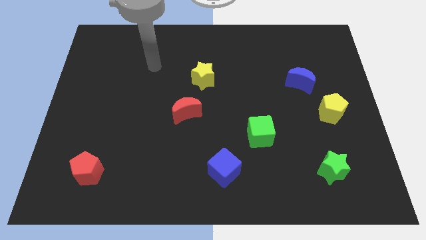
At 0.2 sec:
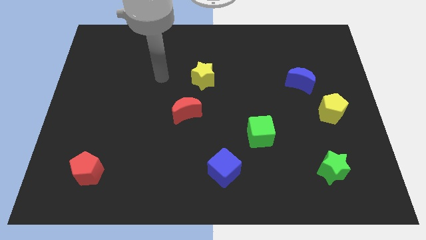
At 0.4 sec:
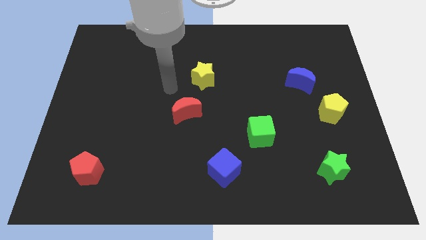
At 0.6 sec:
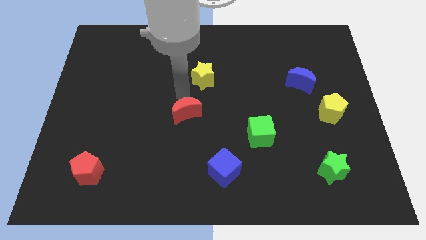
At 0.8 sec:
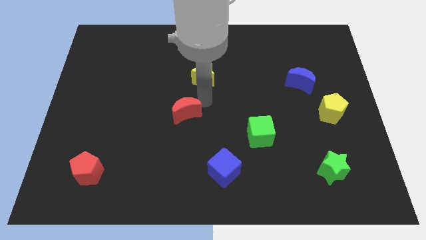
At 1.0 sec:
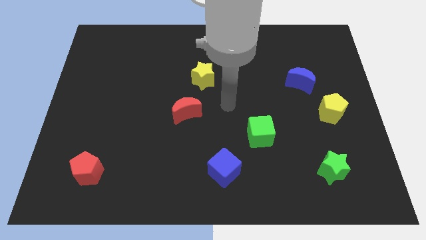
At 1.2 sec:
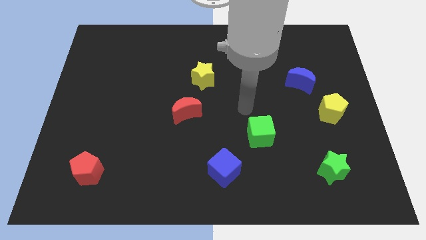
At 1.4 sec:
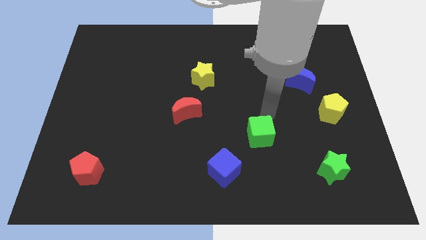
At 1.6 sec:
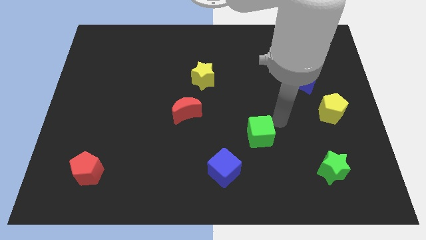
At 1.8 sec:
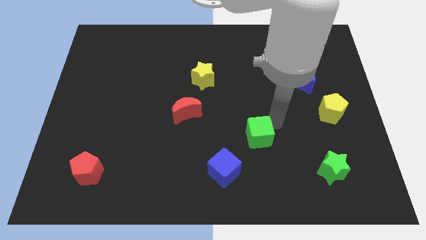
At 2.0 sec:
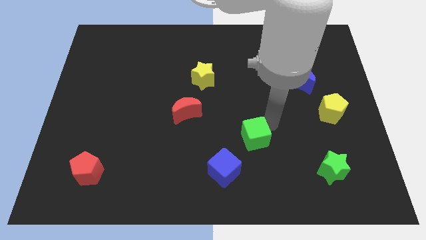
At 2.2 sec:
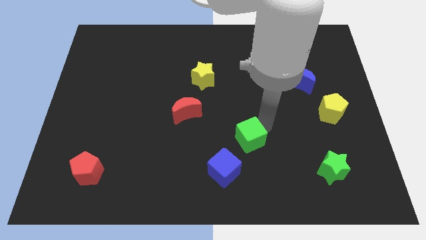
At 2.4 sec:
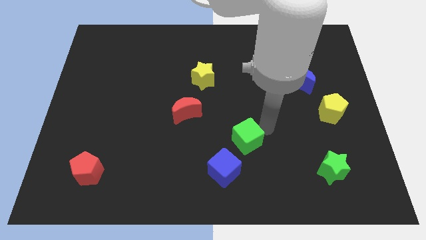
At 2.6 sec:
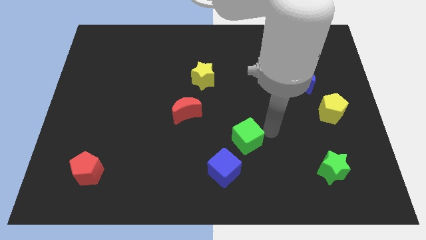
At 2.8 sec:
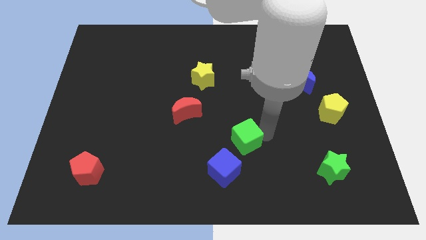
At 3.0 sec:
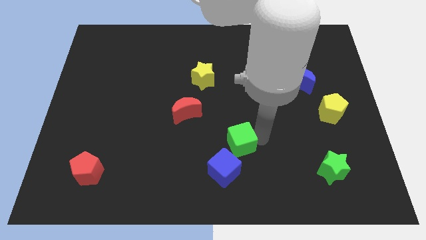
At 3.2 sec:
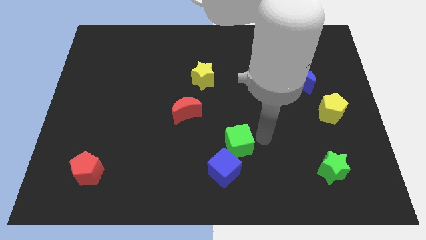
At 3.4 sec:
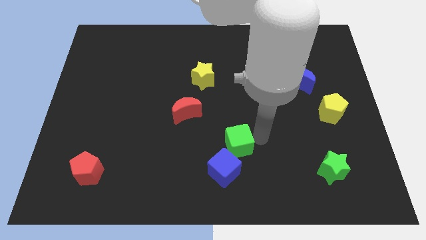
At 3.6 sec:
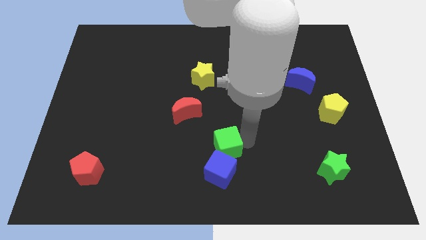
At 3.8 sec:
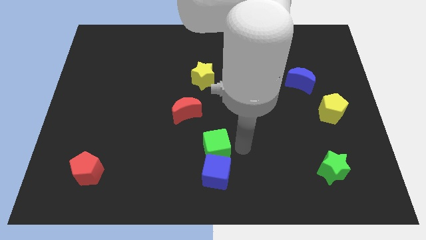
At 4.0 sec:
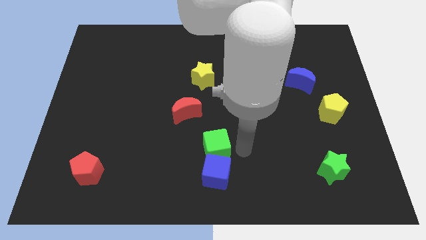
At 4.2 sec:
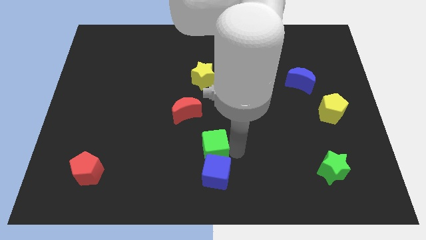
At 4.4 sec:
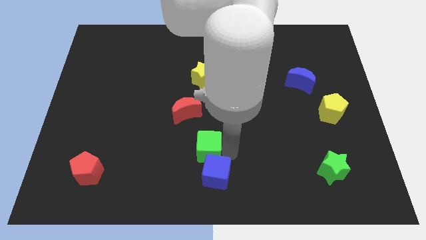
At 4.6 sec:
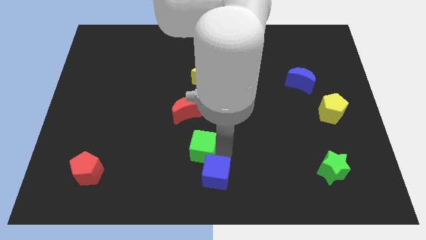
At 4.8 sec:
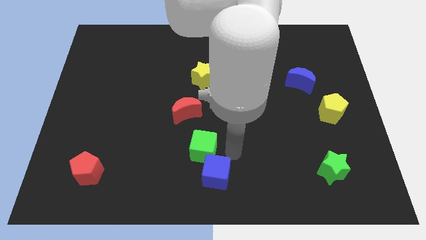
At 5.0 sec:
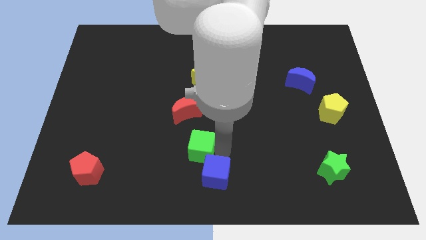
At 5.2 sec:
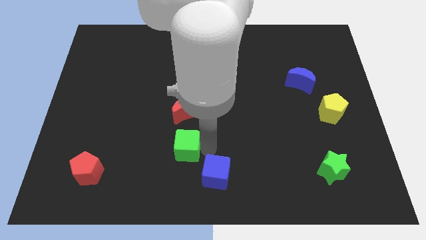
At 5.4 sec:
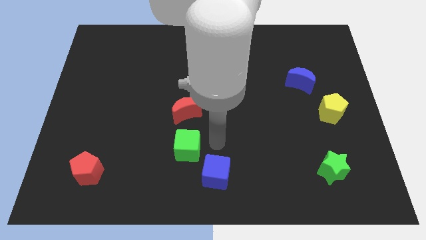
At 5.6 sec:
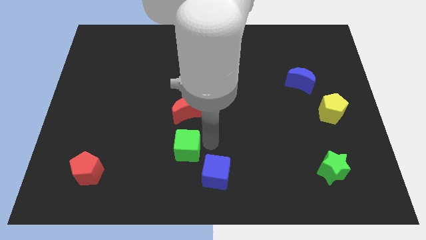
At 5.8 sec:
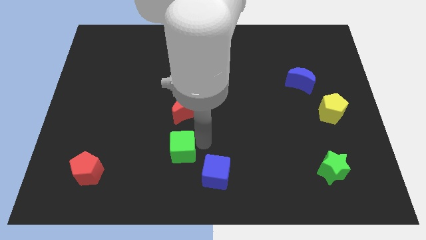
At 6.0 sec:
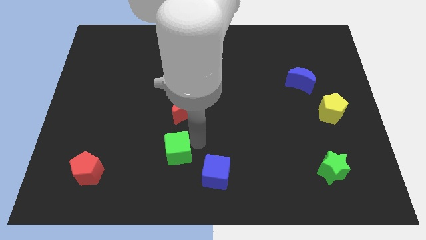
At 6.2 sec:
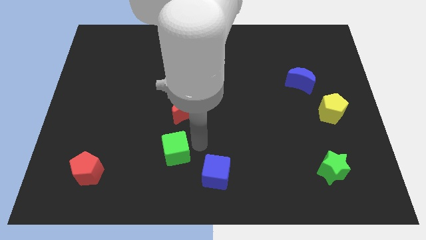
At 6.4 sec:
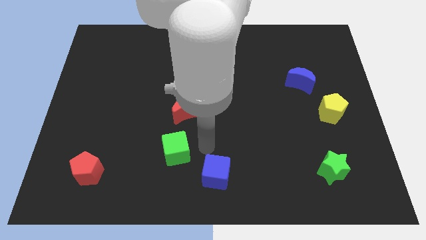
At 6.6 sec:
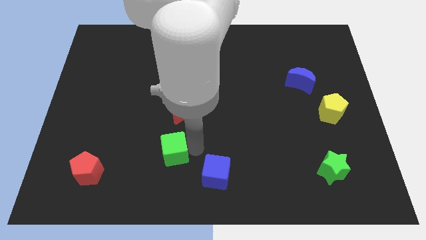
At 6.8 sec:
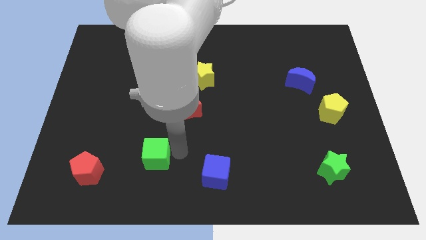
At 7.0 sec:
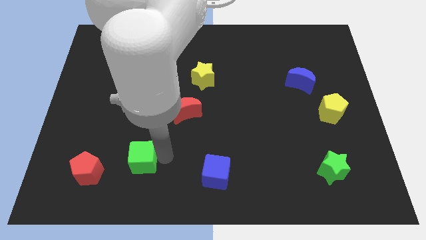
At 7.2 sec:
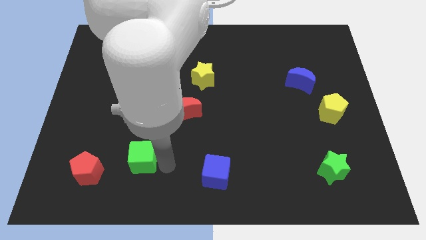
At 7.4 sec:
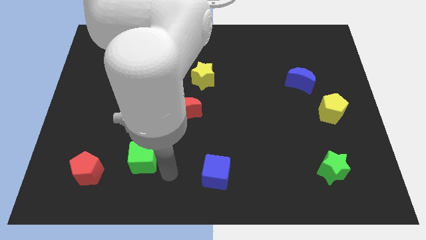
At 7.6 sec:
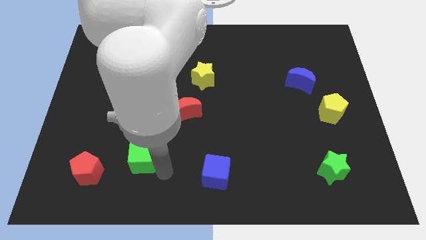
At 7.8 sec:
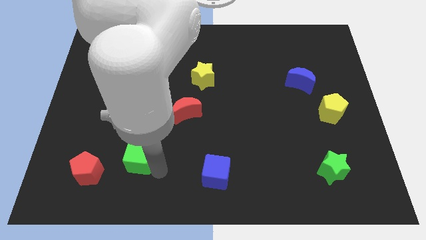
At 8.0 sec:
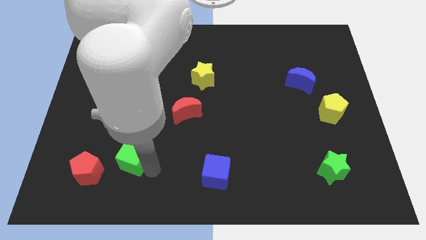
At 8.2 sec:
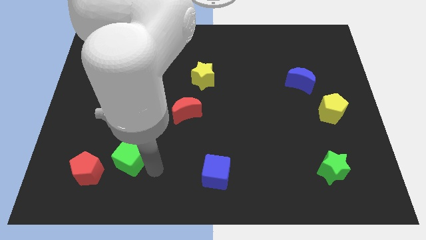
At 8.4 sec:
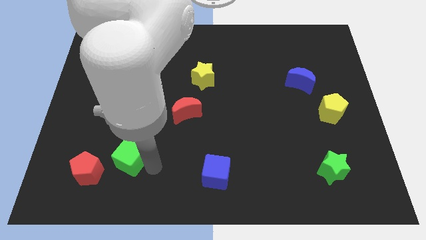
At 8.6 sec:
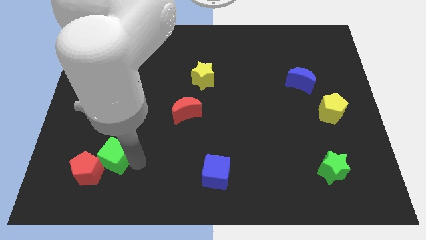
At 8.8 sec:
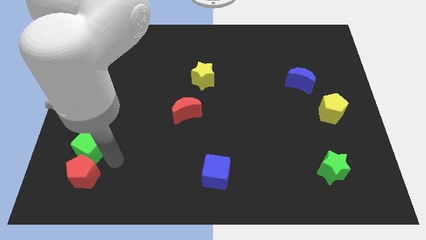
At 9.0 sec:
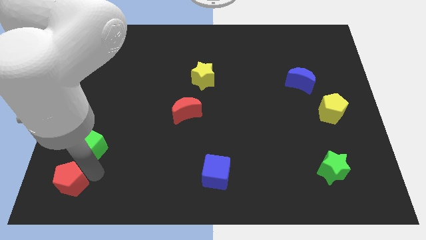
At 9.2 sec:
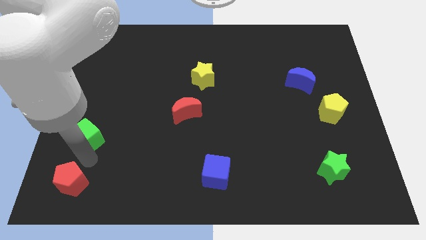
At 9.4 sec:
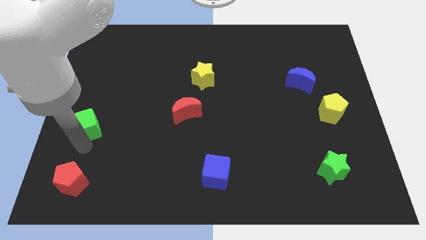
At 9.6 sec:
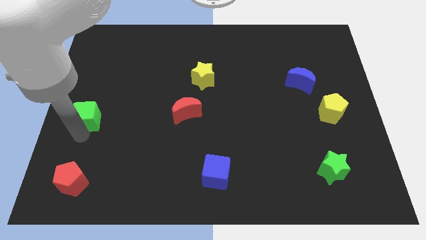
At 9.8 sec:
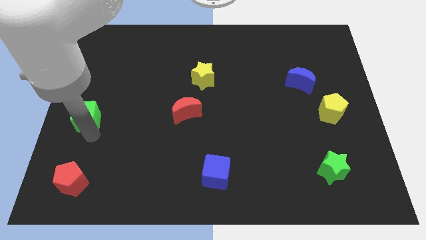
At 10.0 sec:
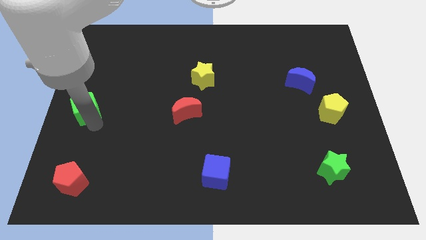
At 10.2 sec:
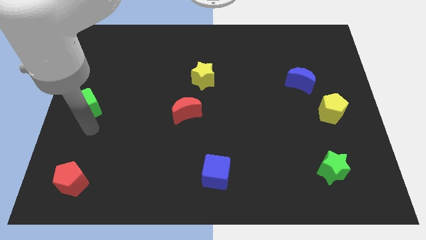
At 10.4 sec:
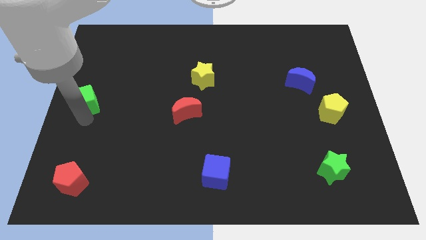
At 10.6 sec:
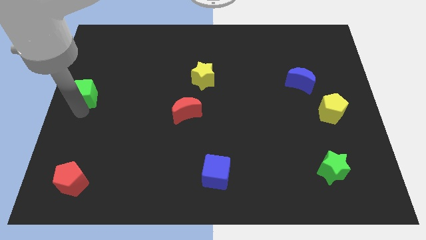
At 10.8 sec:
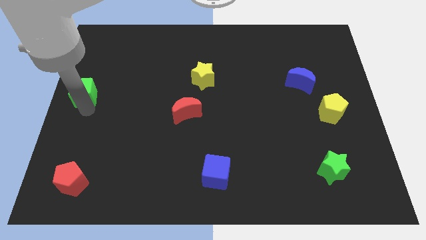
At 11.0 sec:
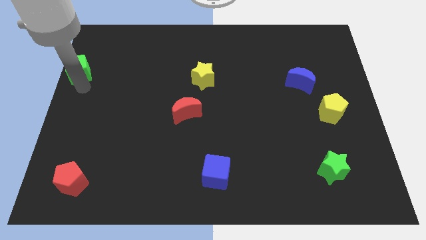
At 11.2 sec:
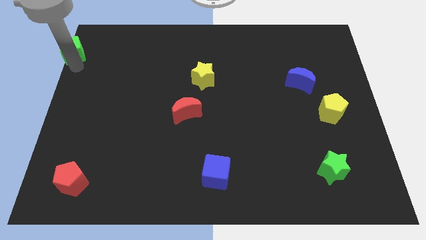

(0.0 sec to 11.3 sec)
slide the green cube to the top left

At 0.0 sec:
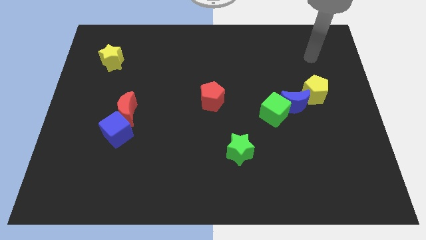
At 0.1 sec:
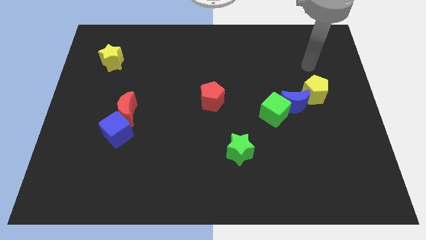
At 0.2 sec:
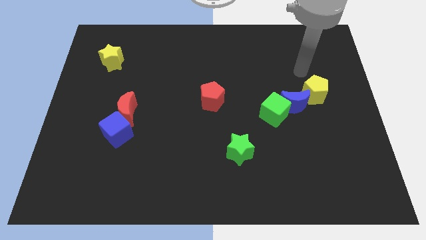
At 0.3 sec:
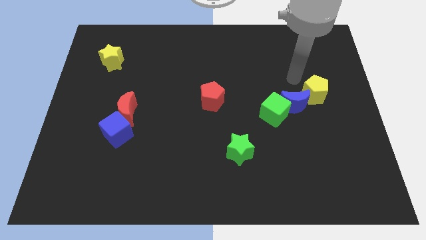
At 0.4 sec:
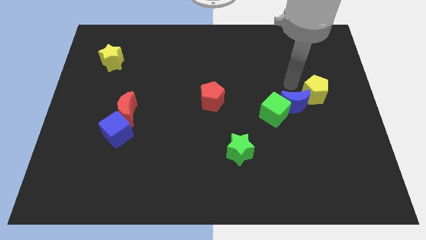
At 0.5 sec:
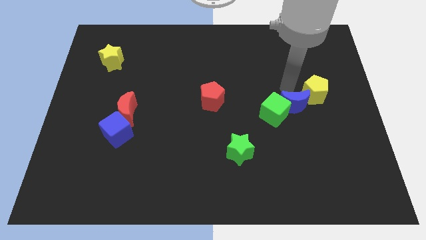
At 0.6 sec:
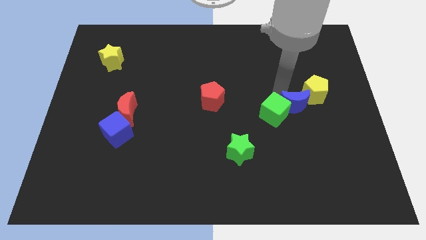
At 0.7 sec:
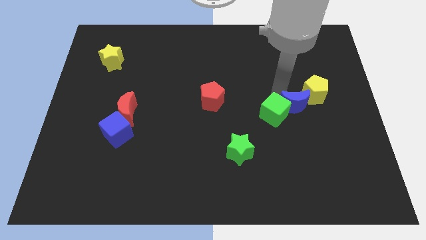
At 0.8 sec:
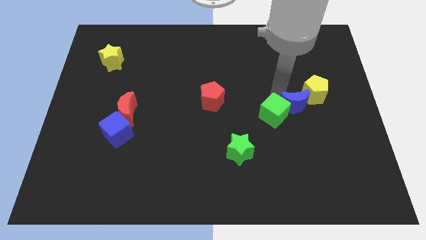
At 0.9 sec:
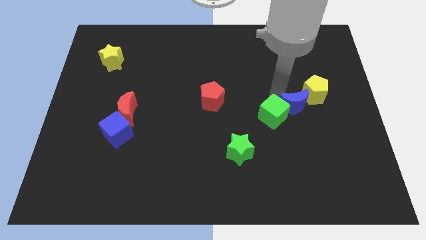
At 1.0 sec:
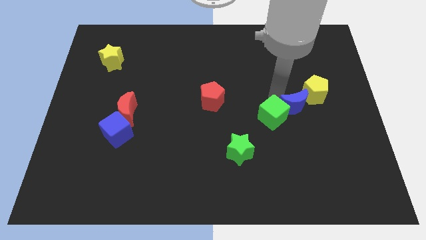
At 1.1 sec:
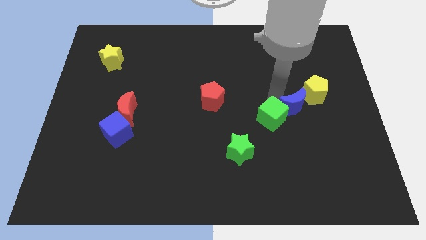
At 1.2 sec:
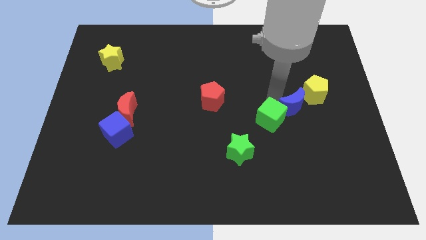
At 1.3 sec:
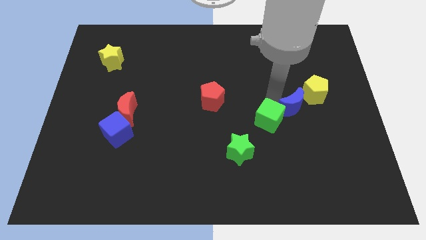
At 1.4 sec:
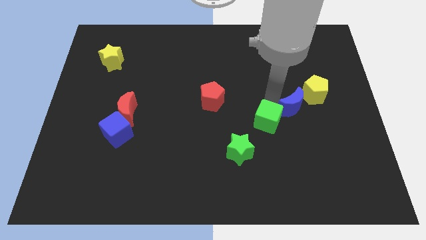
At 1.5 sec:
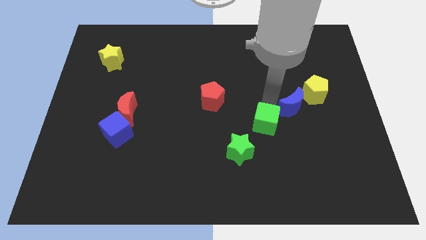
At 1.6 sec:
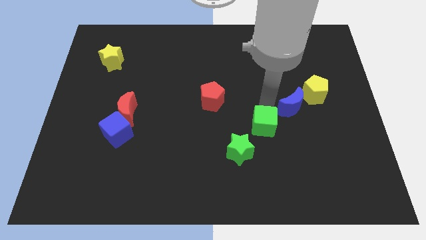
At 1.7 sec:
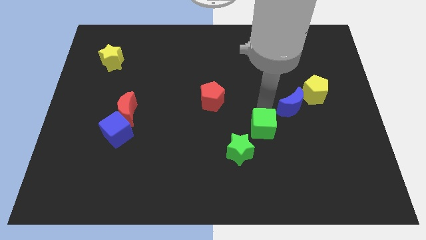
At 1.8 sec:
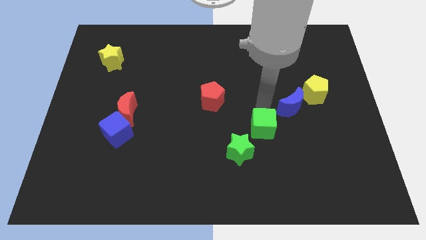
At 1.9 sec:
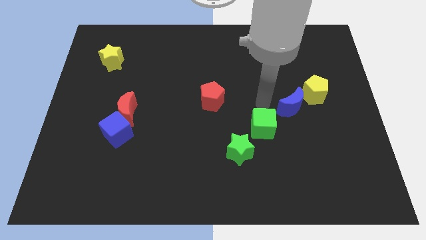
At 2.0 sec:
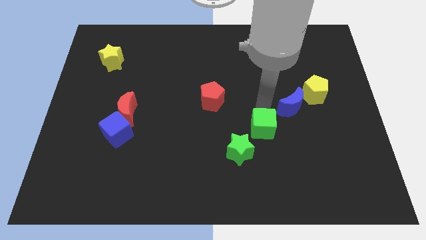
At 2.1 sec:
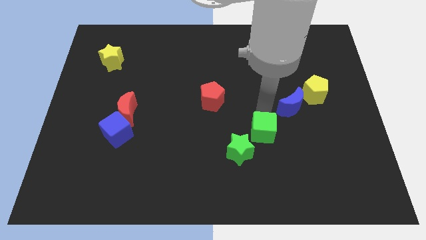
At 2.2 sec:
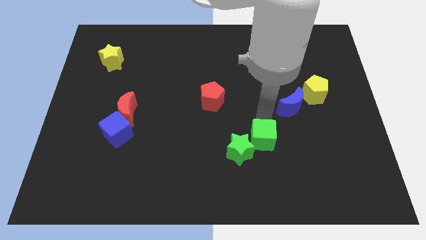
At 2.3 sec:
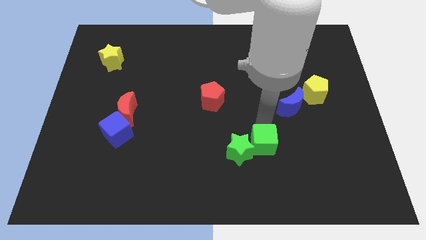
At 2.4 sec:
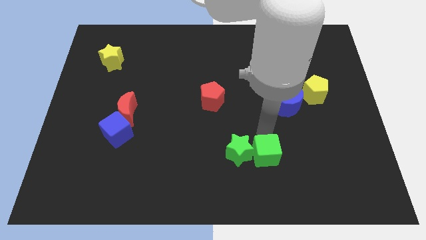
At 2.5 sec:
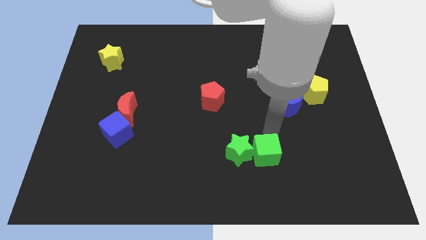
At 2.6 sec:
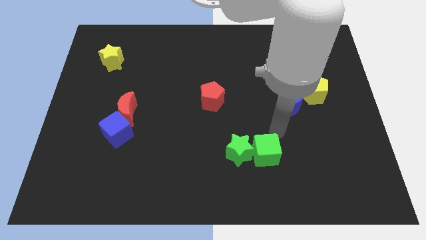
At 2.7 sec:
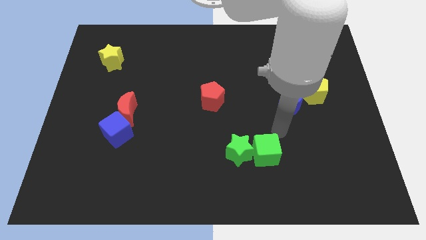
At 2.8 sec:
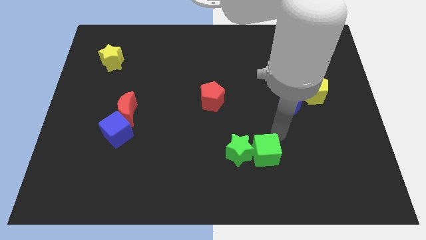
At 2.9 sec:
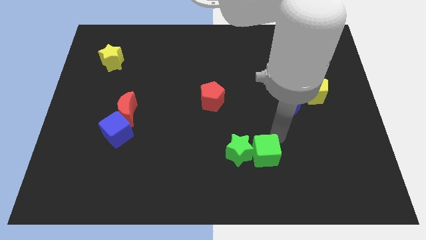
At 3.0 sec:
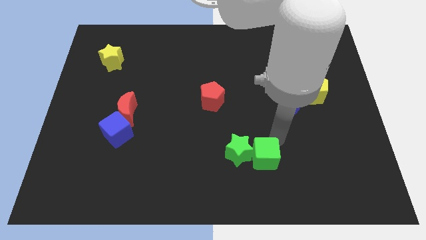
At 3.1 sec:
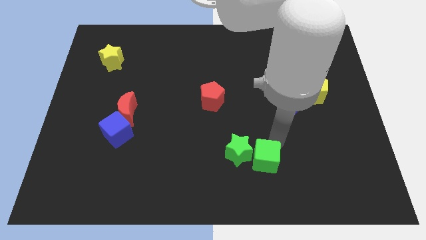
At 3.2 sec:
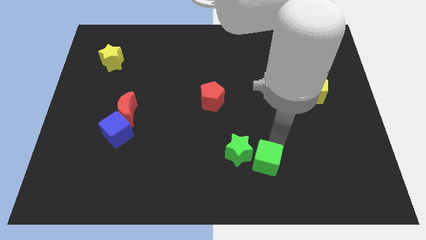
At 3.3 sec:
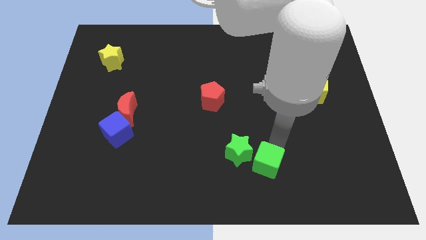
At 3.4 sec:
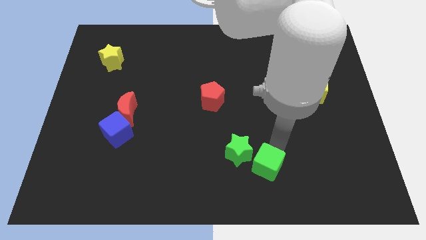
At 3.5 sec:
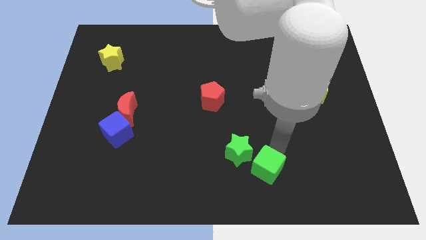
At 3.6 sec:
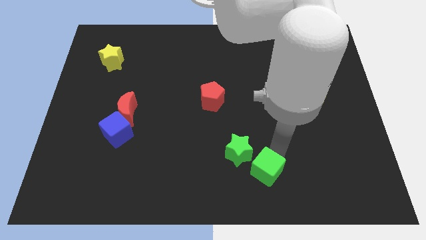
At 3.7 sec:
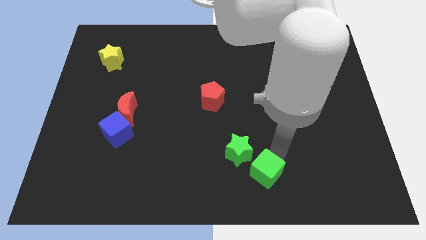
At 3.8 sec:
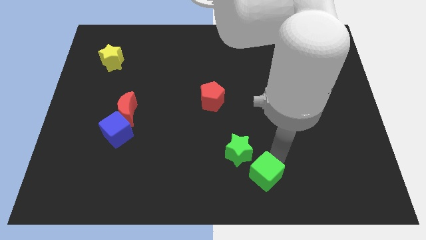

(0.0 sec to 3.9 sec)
push the green cube to the bottom side
